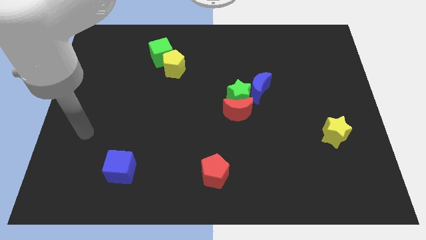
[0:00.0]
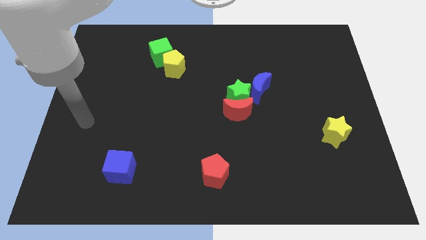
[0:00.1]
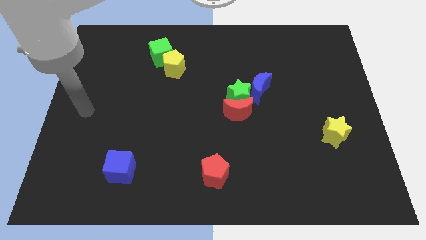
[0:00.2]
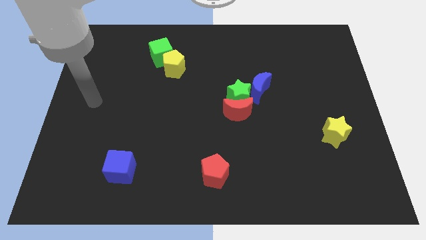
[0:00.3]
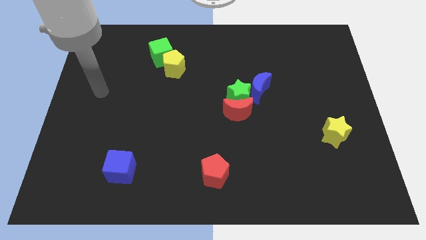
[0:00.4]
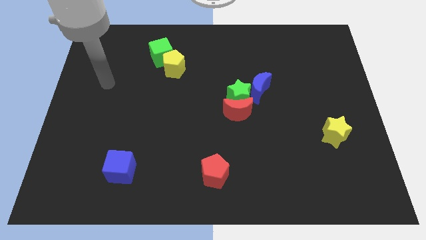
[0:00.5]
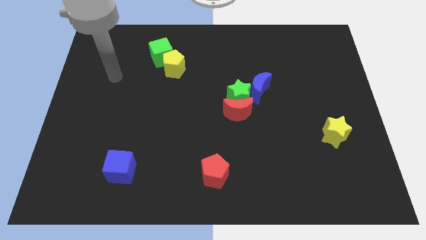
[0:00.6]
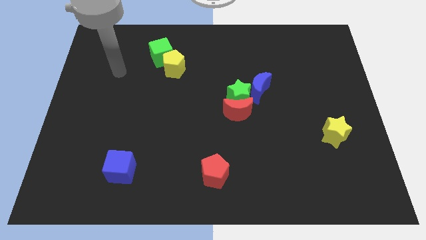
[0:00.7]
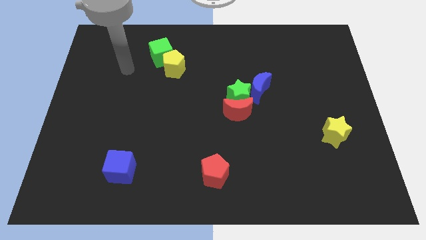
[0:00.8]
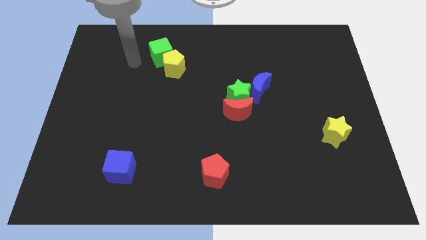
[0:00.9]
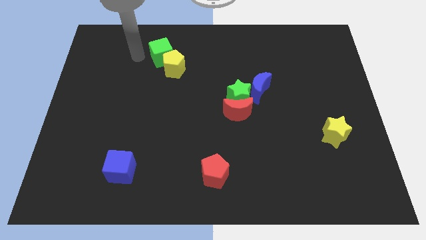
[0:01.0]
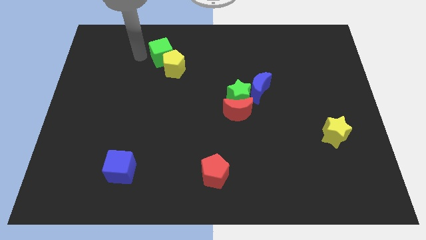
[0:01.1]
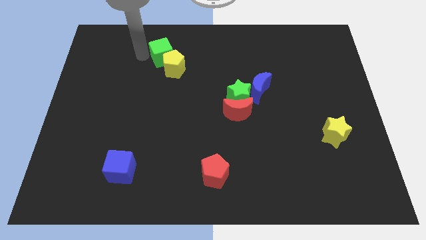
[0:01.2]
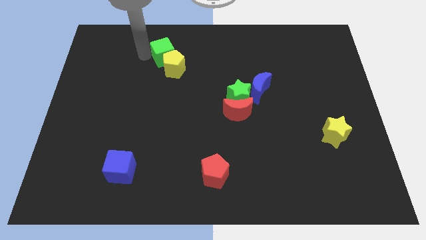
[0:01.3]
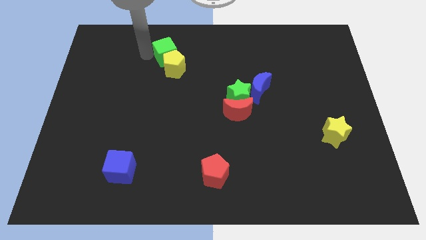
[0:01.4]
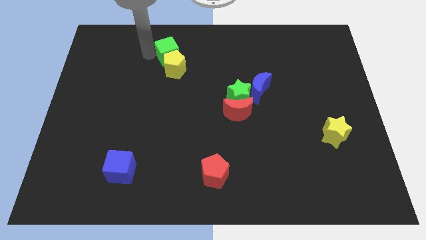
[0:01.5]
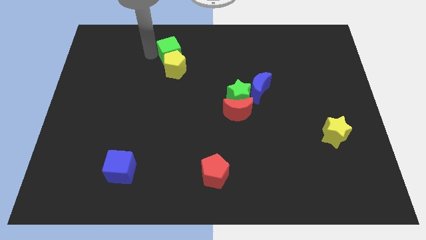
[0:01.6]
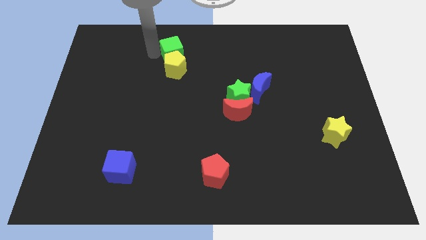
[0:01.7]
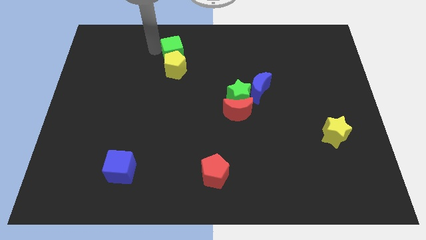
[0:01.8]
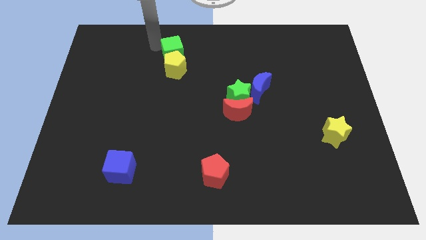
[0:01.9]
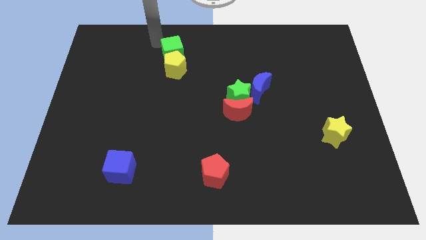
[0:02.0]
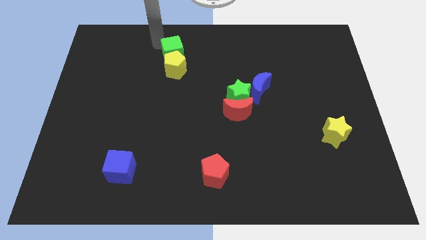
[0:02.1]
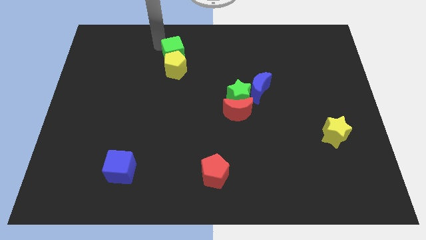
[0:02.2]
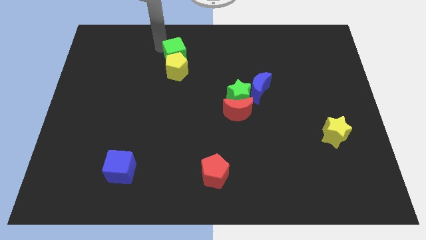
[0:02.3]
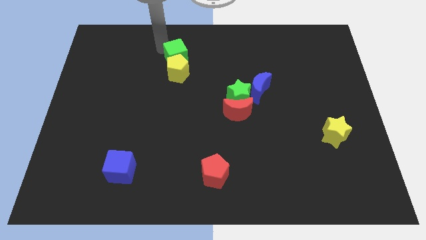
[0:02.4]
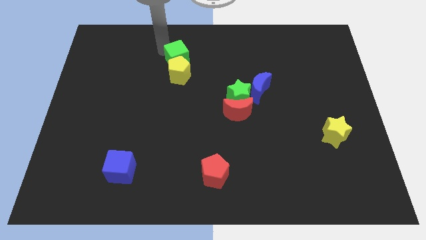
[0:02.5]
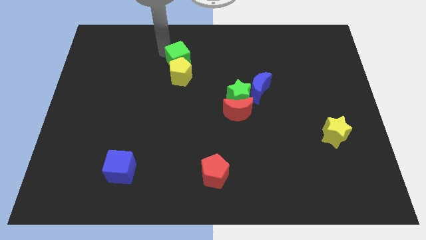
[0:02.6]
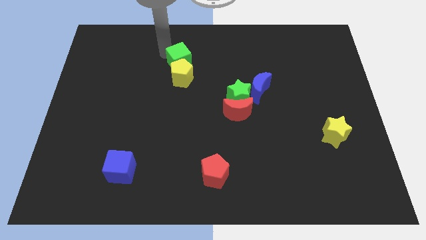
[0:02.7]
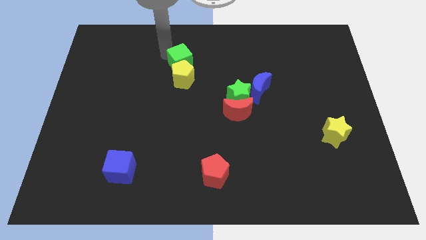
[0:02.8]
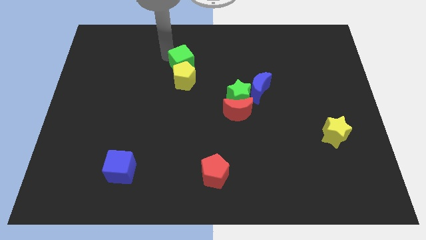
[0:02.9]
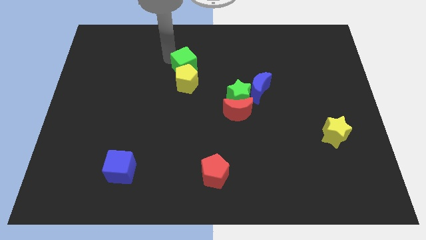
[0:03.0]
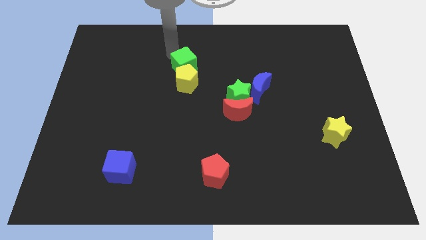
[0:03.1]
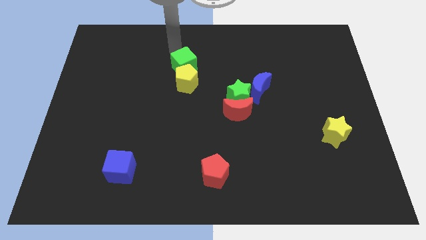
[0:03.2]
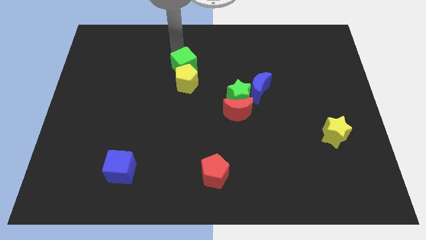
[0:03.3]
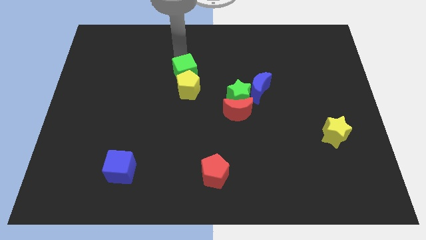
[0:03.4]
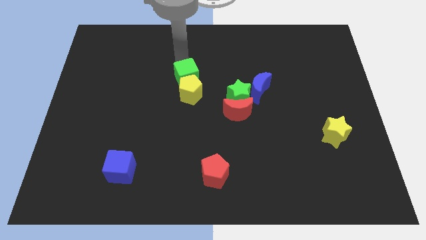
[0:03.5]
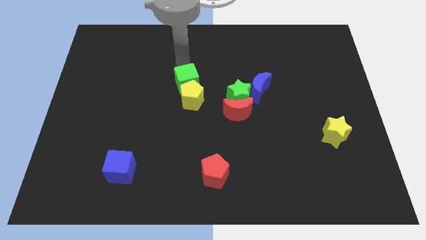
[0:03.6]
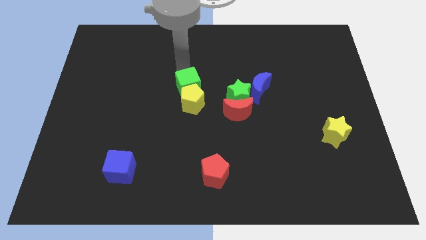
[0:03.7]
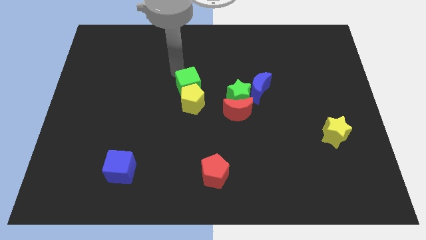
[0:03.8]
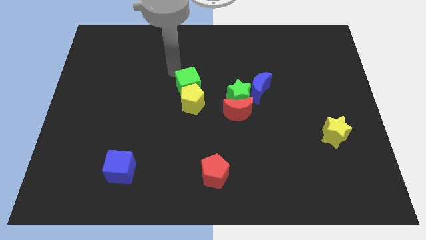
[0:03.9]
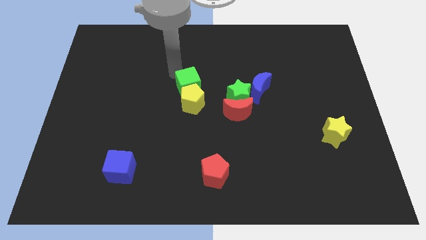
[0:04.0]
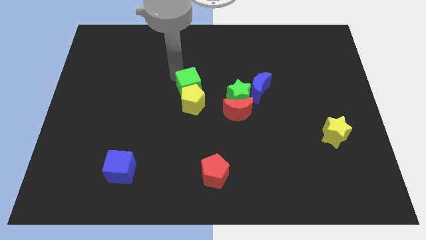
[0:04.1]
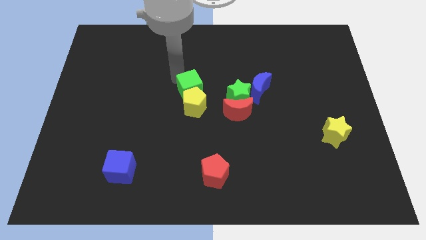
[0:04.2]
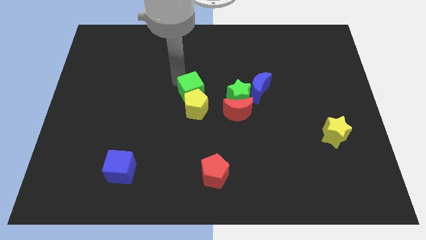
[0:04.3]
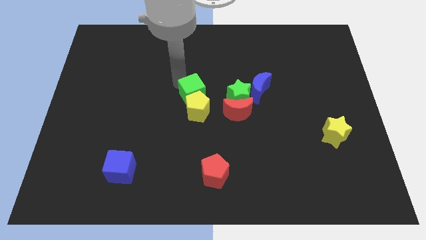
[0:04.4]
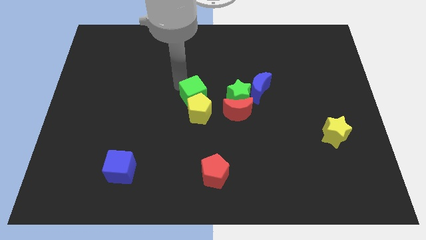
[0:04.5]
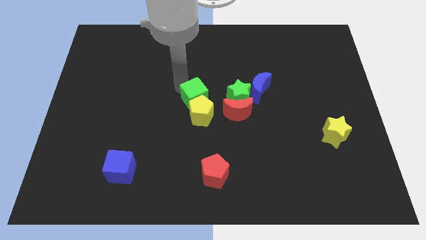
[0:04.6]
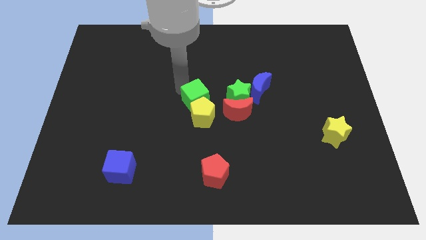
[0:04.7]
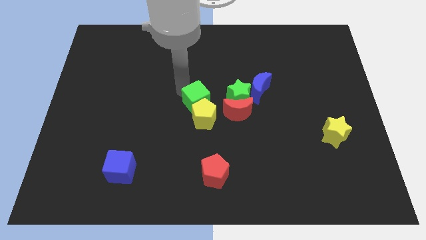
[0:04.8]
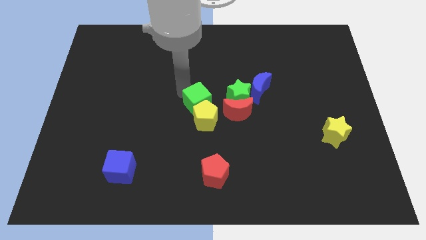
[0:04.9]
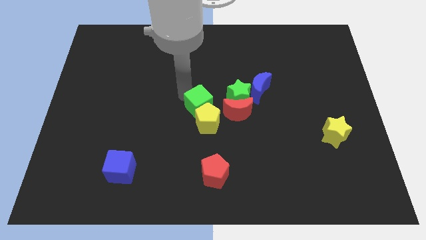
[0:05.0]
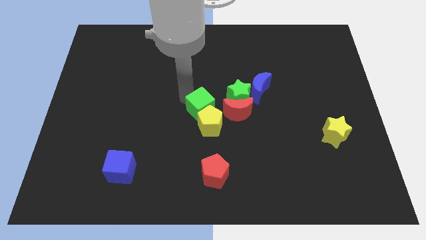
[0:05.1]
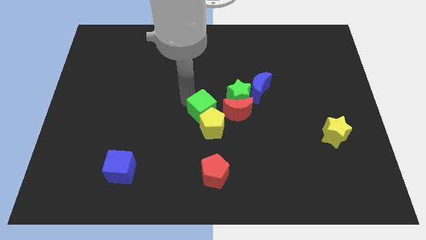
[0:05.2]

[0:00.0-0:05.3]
move the green cube down and right diagonally

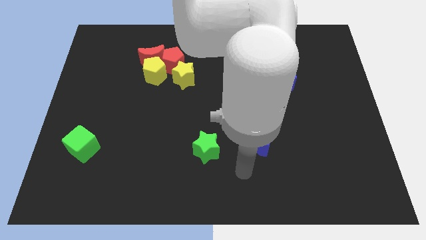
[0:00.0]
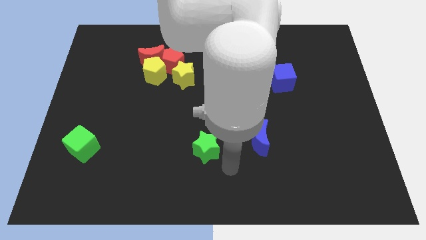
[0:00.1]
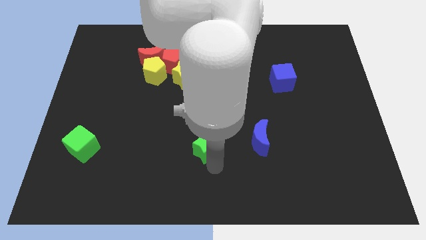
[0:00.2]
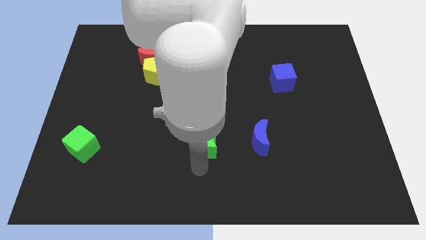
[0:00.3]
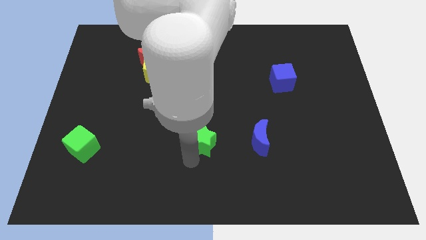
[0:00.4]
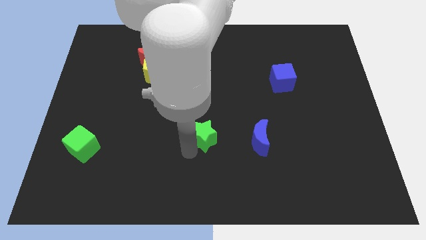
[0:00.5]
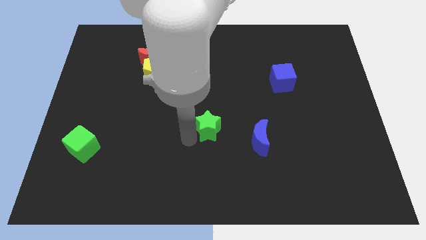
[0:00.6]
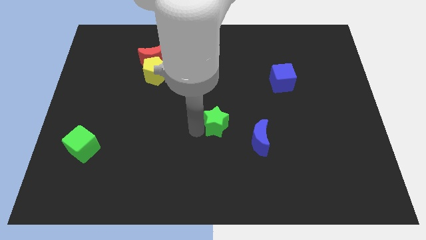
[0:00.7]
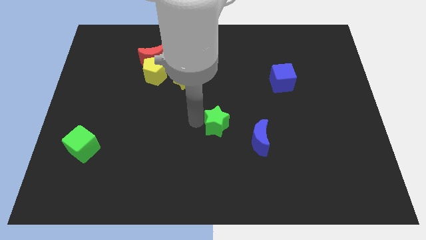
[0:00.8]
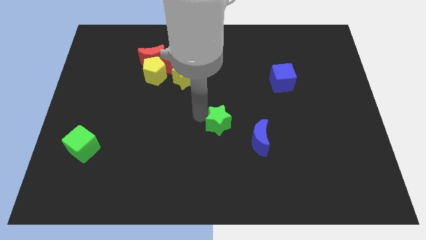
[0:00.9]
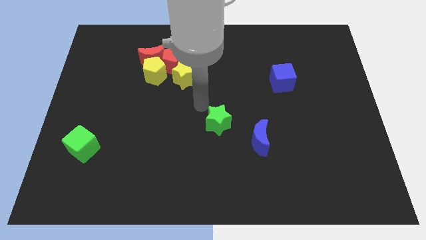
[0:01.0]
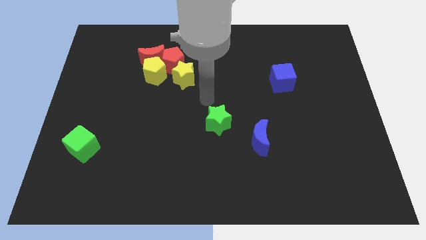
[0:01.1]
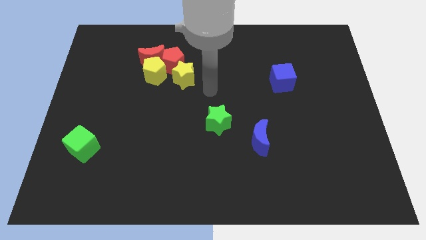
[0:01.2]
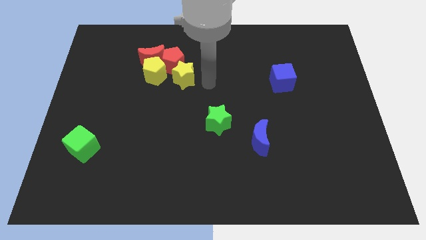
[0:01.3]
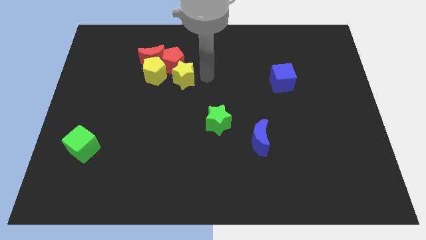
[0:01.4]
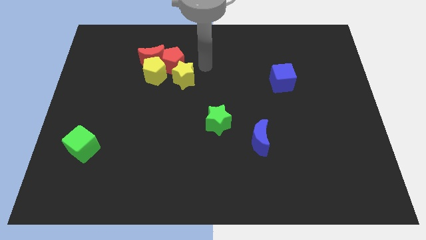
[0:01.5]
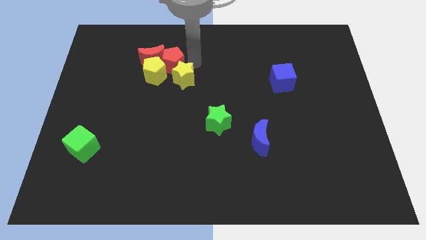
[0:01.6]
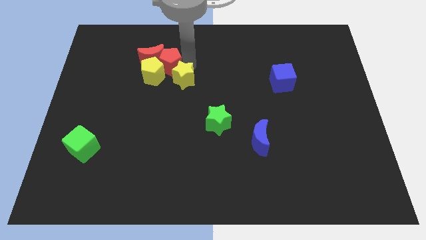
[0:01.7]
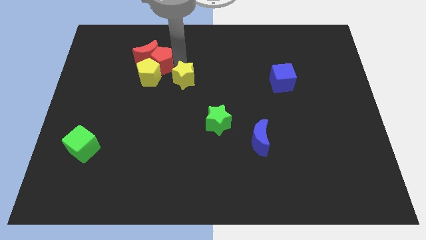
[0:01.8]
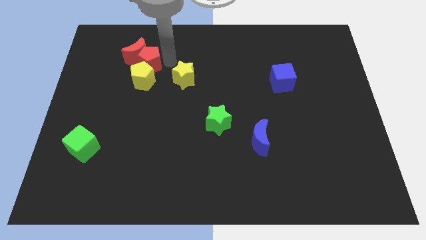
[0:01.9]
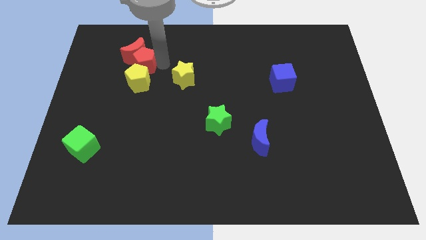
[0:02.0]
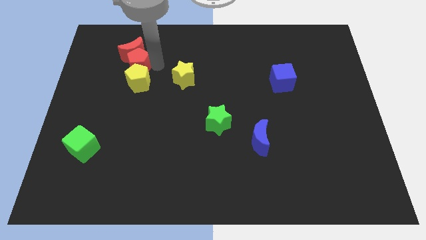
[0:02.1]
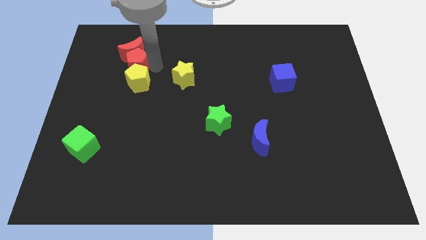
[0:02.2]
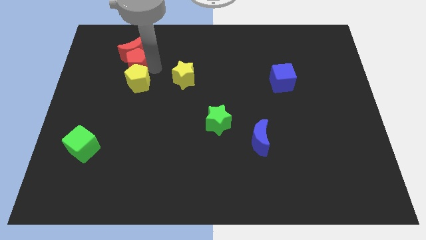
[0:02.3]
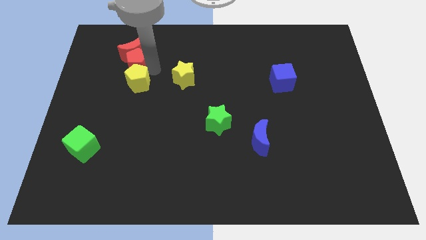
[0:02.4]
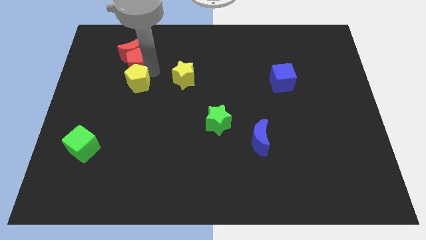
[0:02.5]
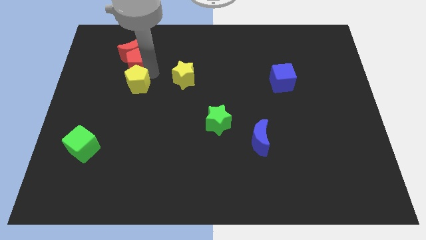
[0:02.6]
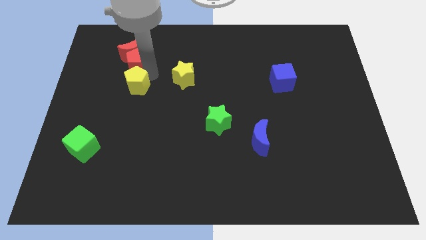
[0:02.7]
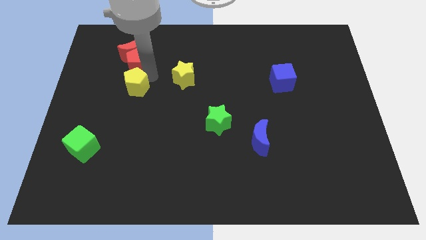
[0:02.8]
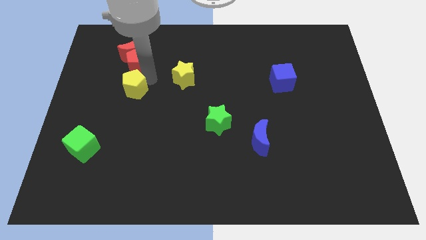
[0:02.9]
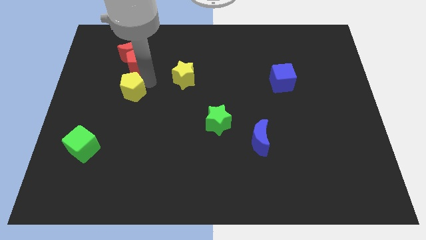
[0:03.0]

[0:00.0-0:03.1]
slightly slide the yellow pentagon down and left diagonally
